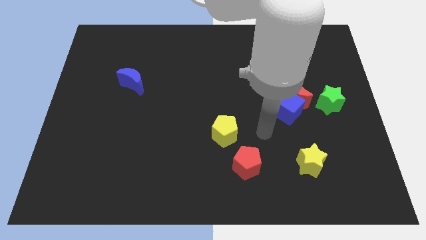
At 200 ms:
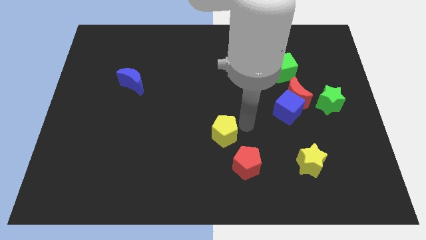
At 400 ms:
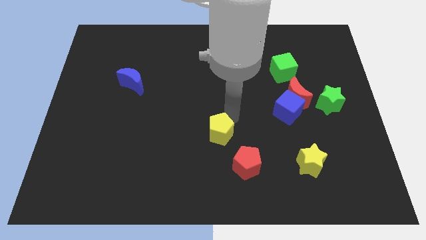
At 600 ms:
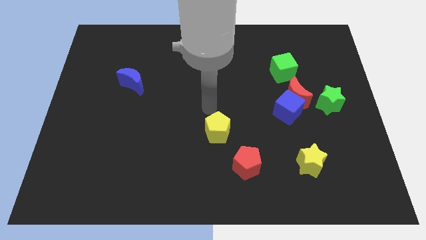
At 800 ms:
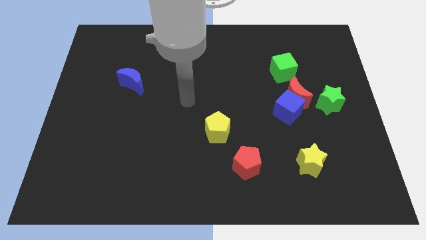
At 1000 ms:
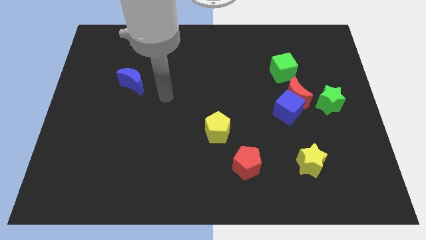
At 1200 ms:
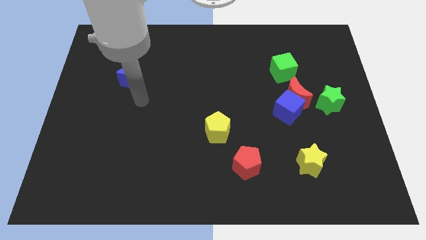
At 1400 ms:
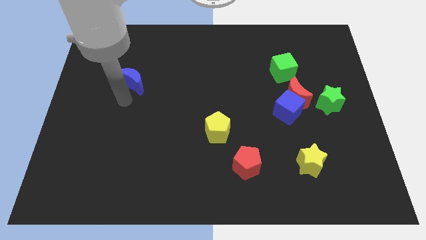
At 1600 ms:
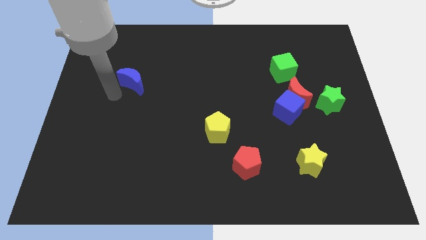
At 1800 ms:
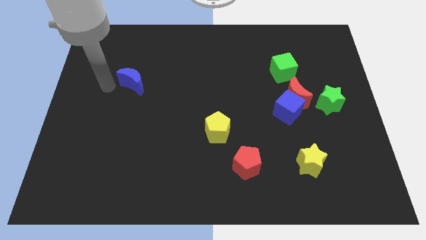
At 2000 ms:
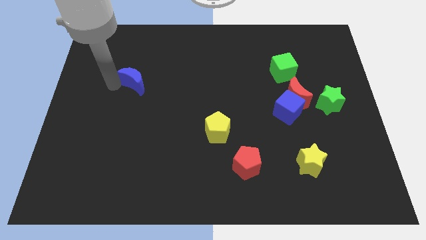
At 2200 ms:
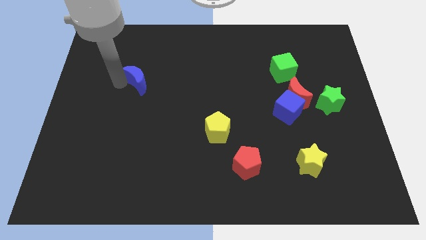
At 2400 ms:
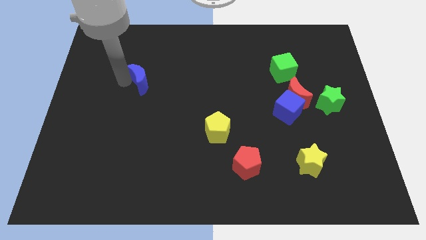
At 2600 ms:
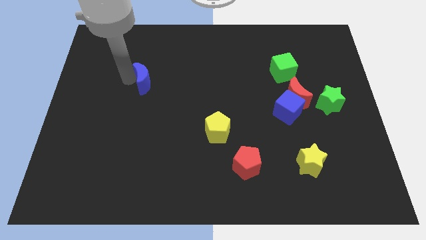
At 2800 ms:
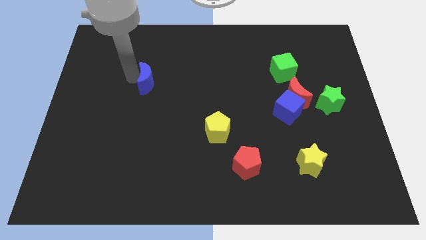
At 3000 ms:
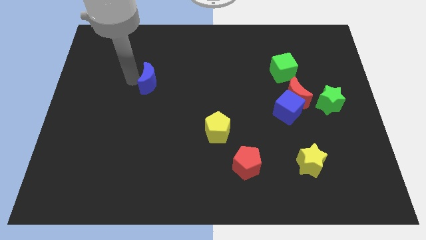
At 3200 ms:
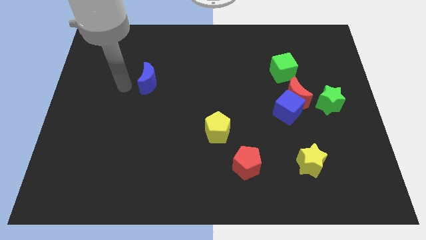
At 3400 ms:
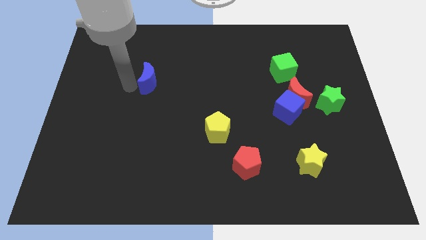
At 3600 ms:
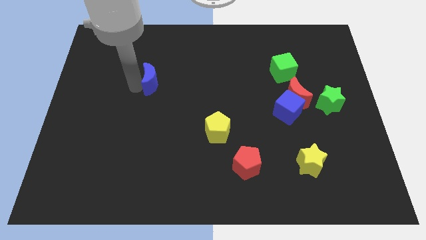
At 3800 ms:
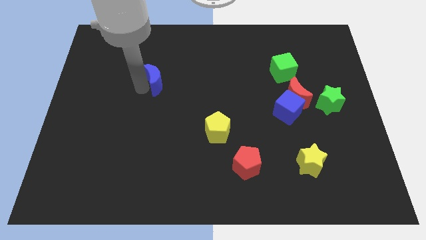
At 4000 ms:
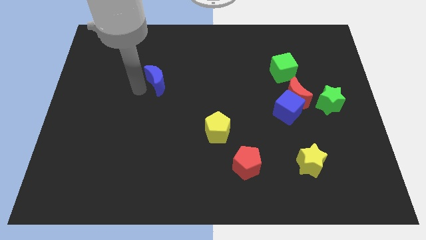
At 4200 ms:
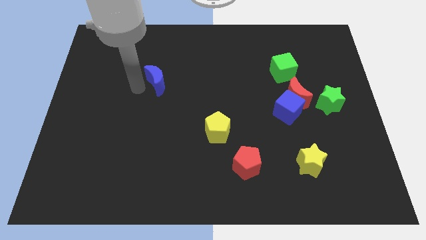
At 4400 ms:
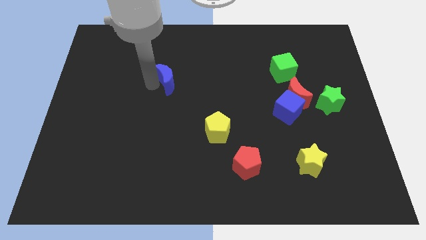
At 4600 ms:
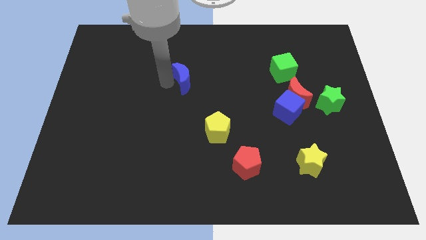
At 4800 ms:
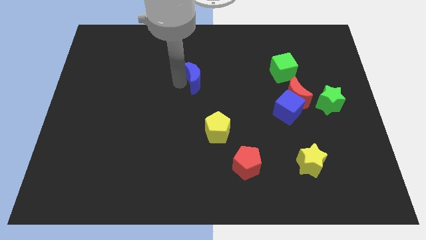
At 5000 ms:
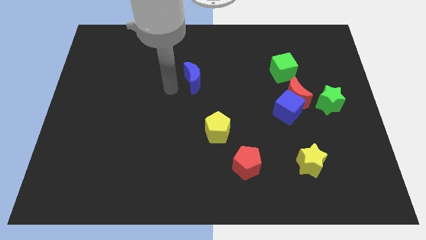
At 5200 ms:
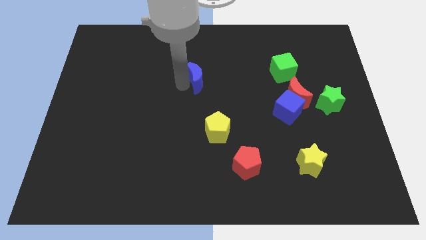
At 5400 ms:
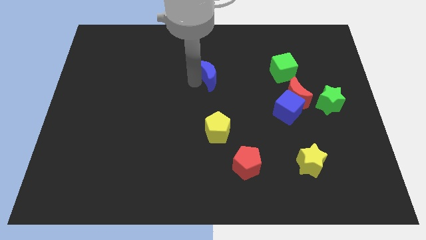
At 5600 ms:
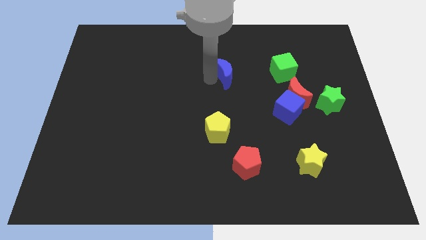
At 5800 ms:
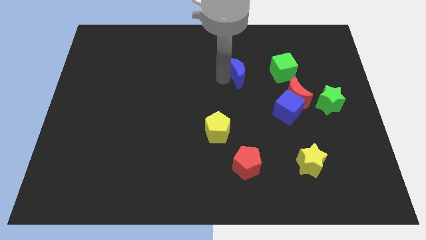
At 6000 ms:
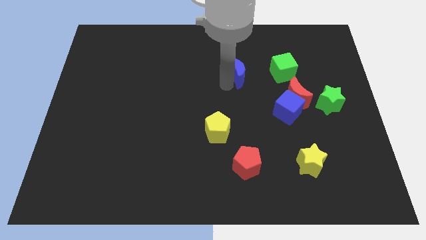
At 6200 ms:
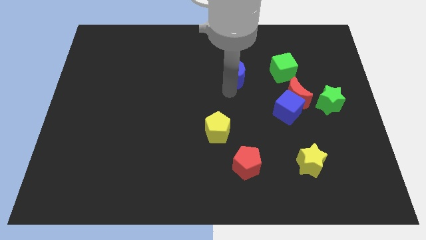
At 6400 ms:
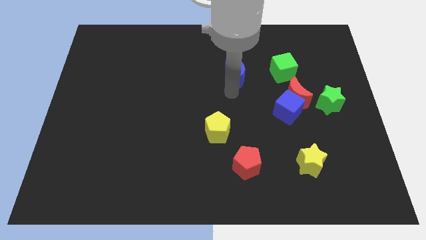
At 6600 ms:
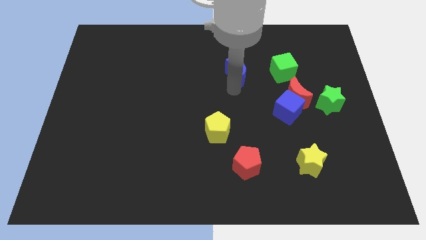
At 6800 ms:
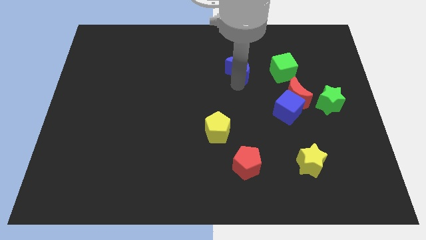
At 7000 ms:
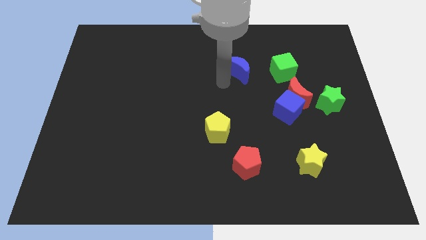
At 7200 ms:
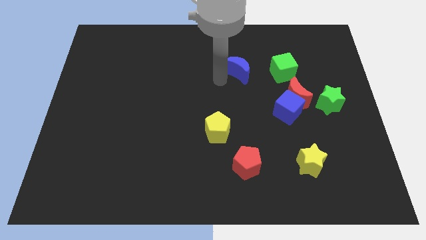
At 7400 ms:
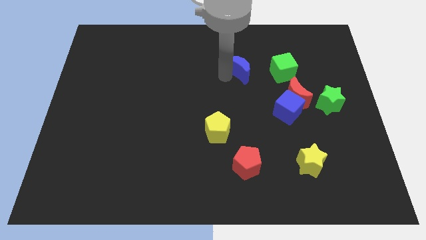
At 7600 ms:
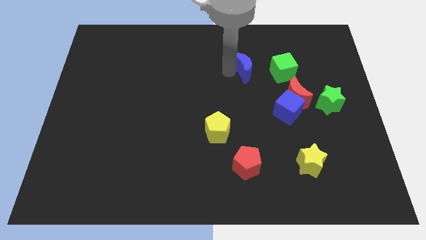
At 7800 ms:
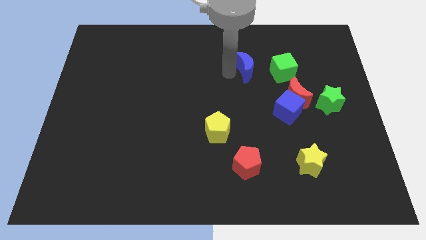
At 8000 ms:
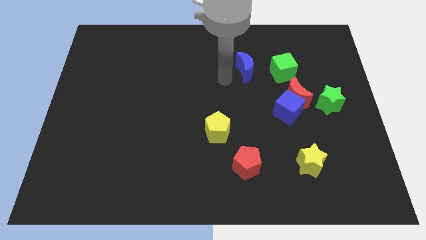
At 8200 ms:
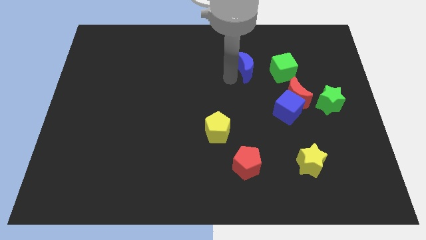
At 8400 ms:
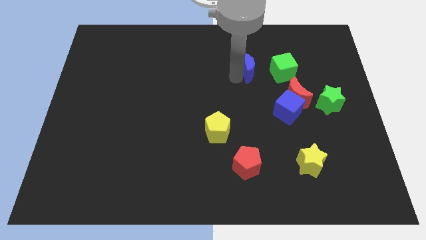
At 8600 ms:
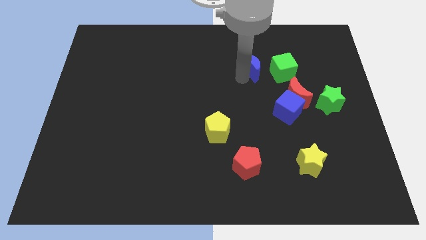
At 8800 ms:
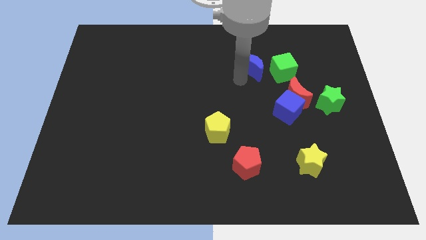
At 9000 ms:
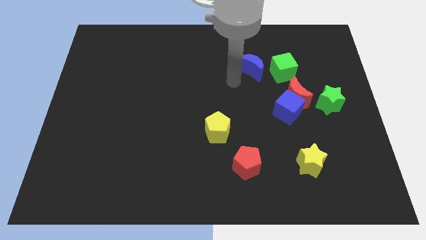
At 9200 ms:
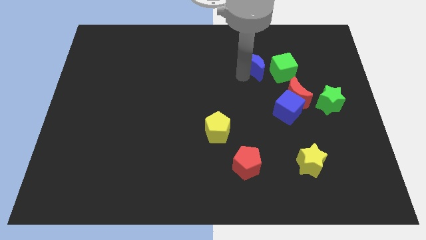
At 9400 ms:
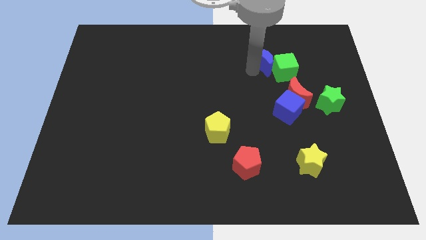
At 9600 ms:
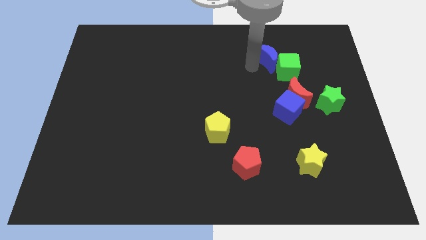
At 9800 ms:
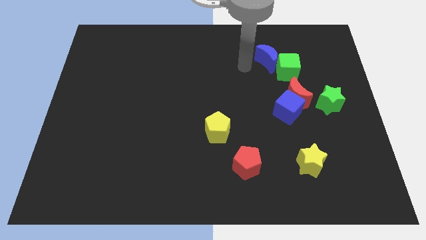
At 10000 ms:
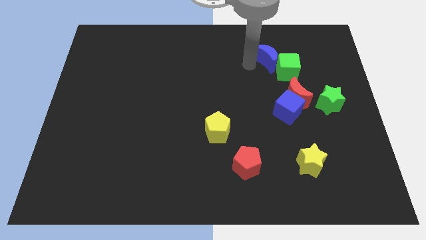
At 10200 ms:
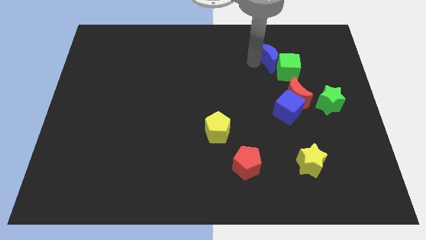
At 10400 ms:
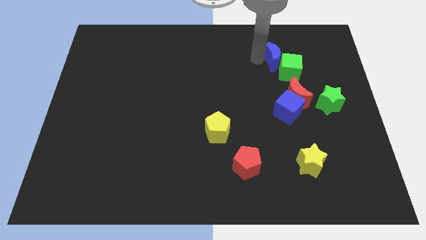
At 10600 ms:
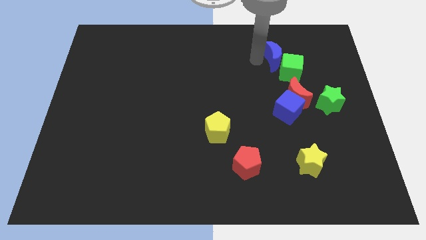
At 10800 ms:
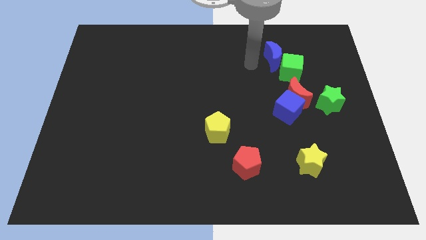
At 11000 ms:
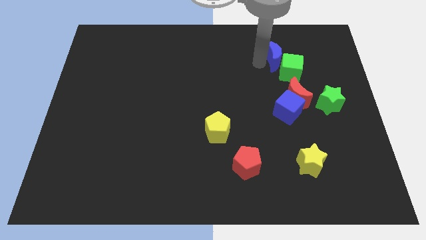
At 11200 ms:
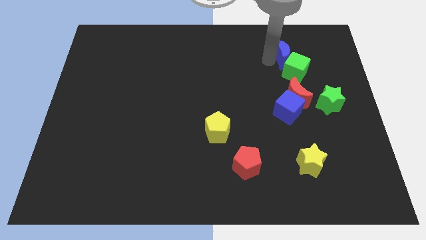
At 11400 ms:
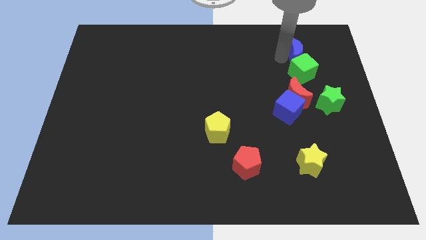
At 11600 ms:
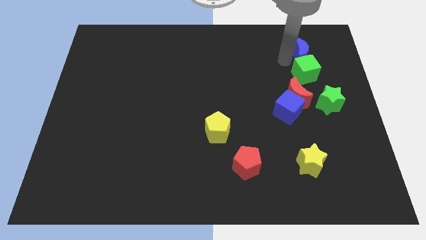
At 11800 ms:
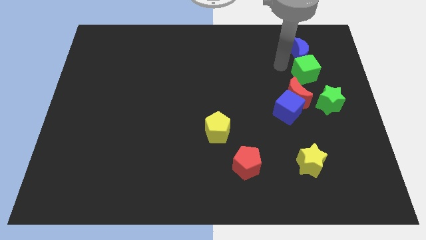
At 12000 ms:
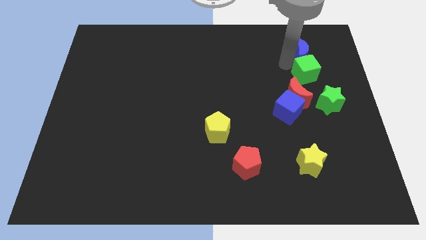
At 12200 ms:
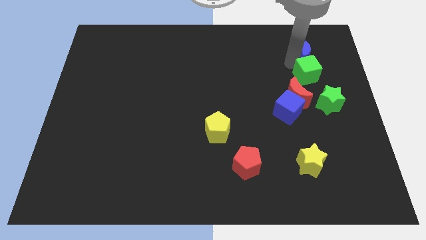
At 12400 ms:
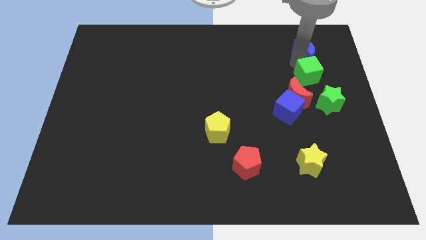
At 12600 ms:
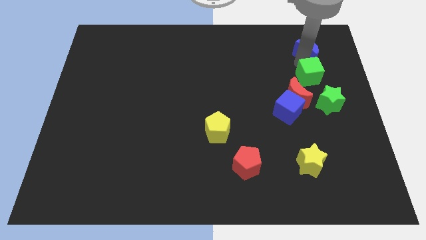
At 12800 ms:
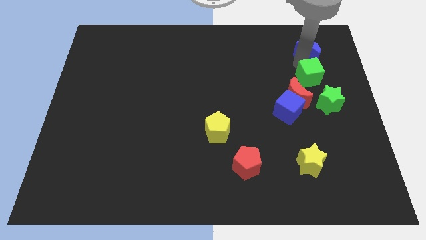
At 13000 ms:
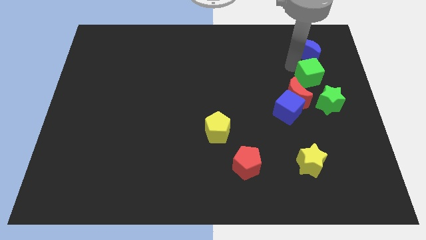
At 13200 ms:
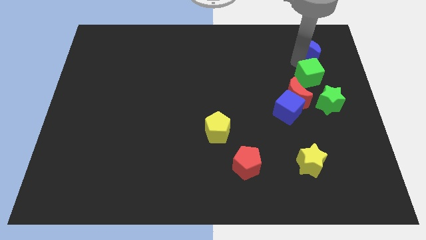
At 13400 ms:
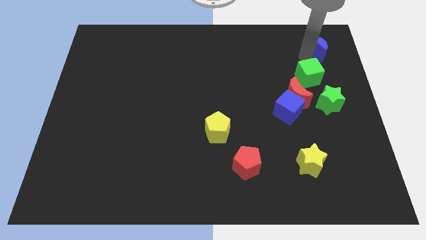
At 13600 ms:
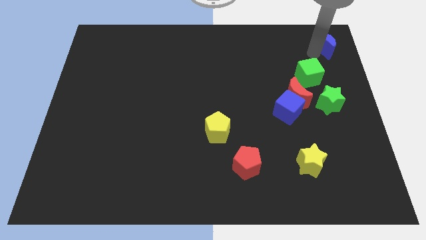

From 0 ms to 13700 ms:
push the blue moon to the top right
